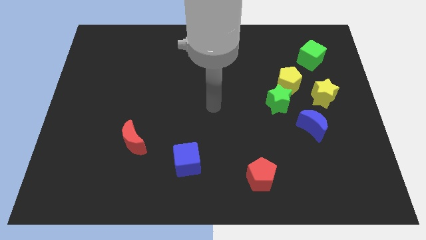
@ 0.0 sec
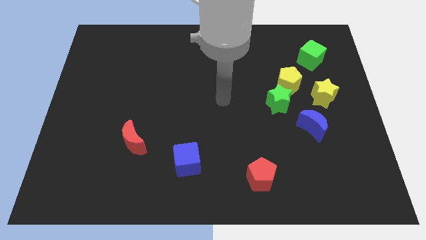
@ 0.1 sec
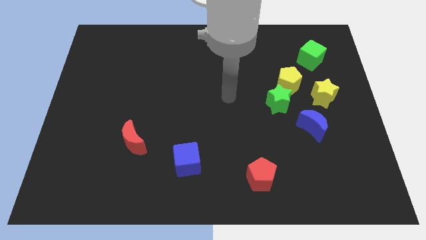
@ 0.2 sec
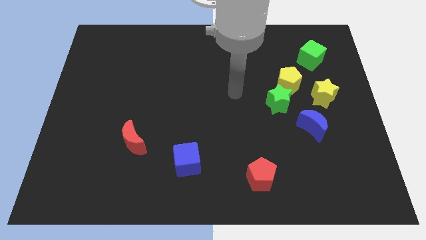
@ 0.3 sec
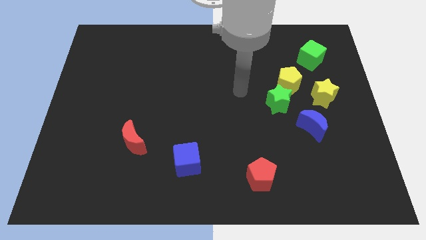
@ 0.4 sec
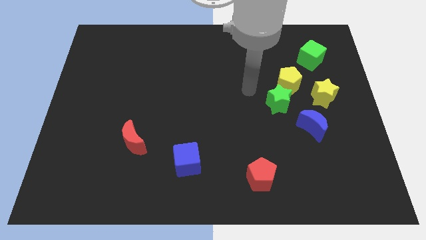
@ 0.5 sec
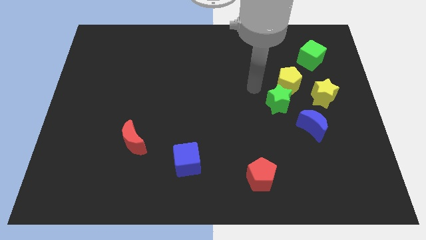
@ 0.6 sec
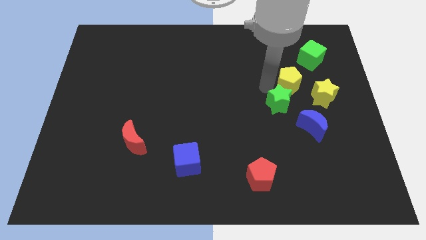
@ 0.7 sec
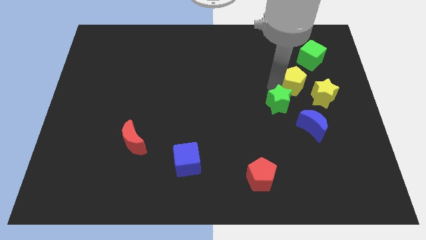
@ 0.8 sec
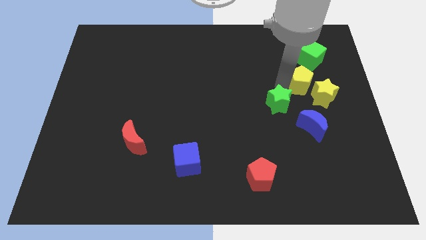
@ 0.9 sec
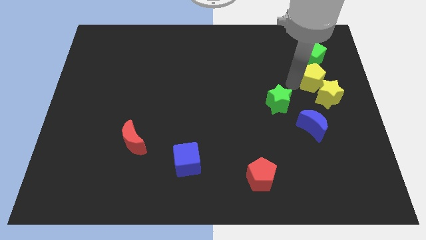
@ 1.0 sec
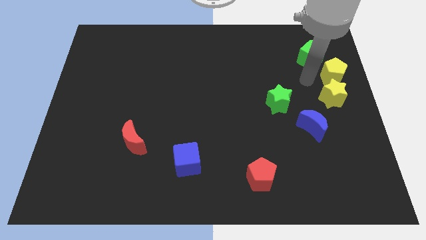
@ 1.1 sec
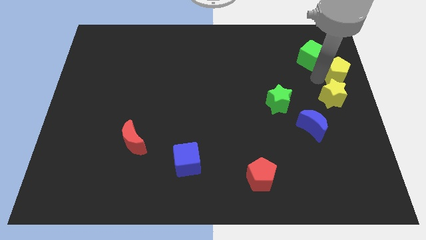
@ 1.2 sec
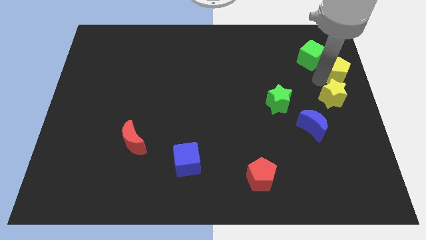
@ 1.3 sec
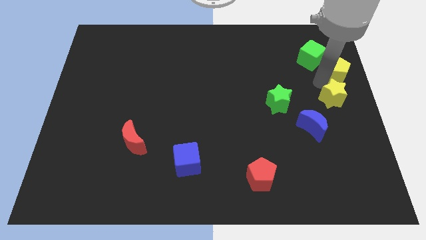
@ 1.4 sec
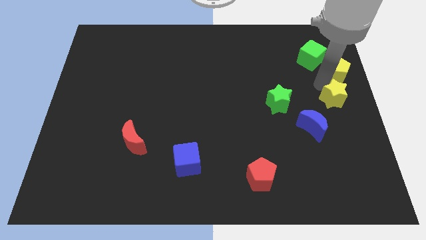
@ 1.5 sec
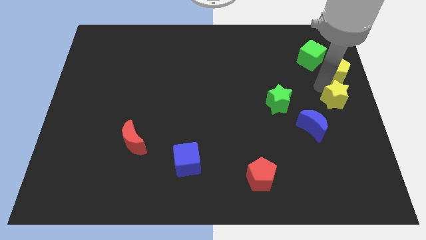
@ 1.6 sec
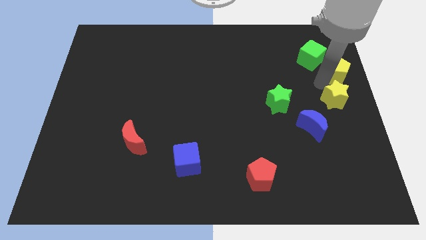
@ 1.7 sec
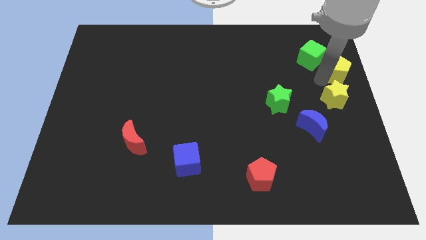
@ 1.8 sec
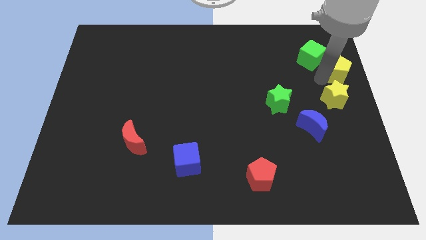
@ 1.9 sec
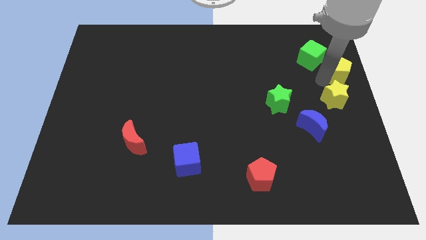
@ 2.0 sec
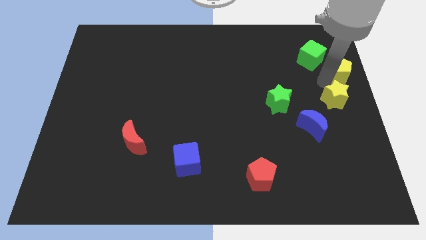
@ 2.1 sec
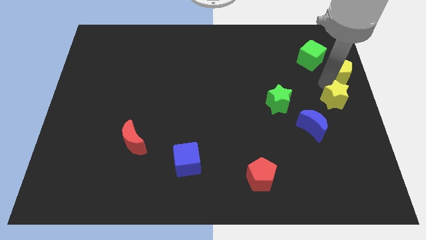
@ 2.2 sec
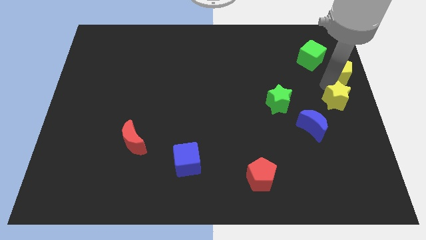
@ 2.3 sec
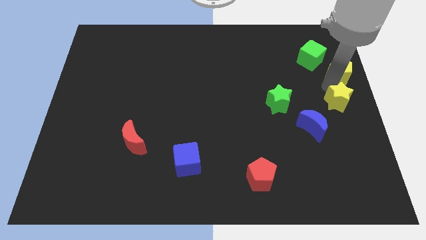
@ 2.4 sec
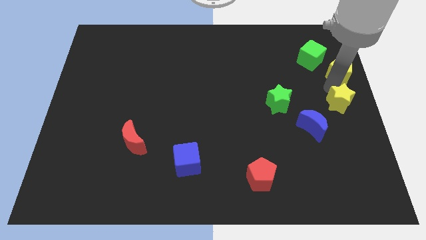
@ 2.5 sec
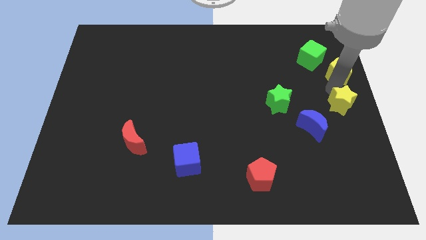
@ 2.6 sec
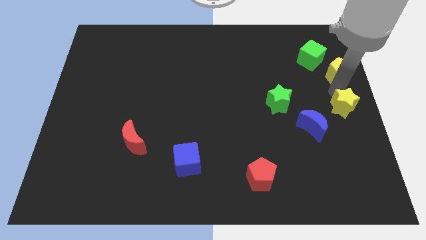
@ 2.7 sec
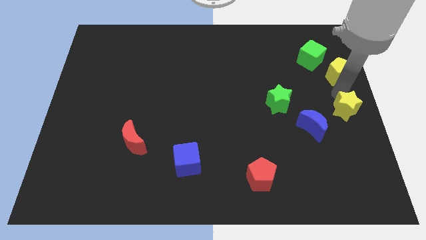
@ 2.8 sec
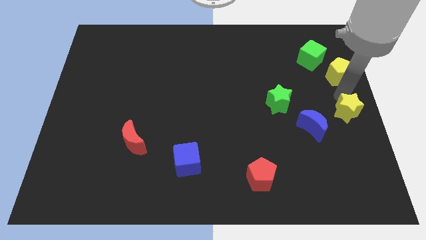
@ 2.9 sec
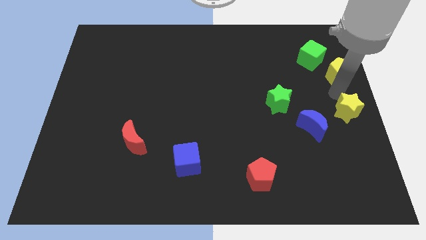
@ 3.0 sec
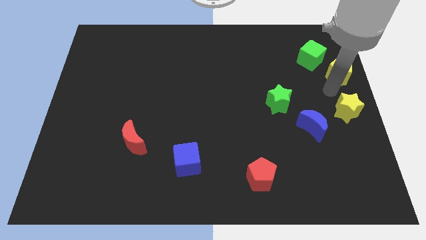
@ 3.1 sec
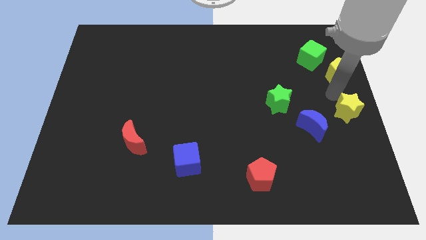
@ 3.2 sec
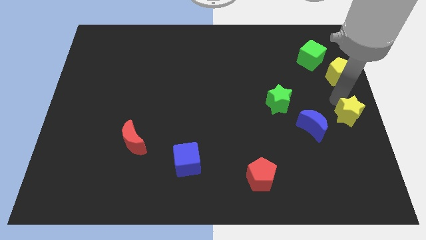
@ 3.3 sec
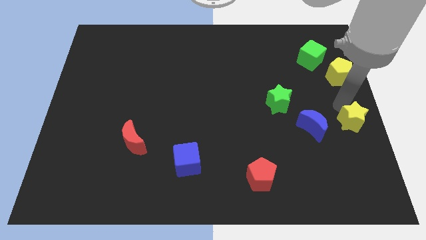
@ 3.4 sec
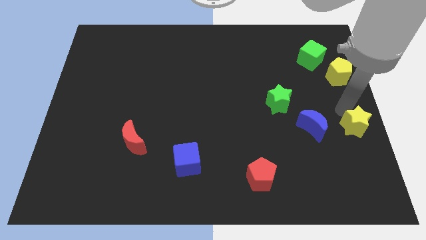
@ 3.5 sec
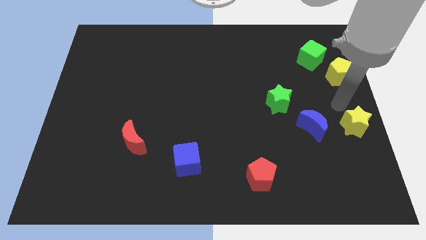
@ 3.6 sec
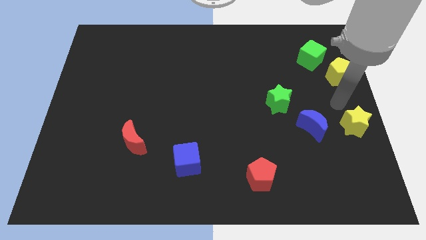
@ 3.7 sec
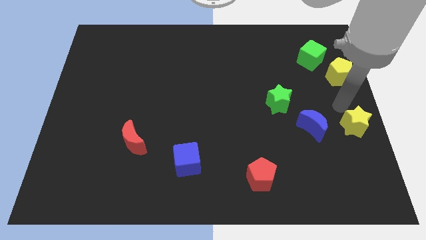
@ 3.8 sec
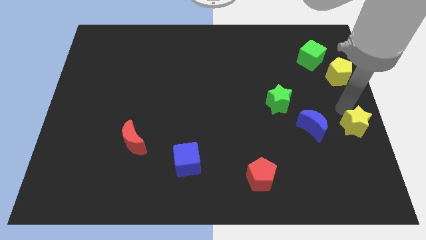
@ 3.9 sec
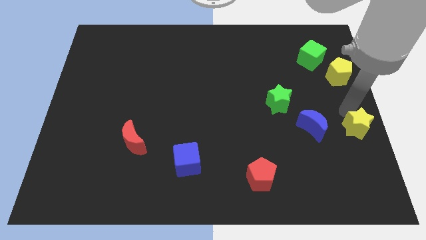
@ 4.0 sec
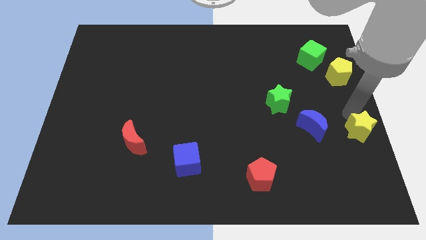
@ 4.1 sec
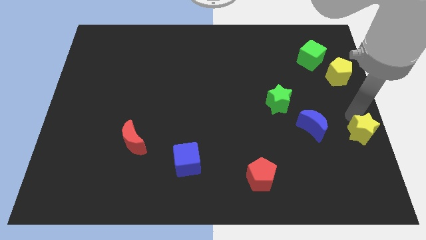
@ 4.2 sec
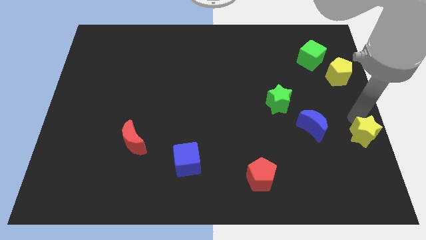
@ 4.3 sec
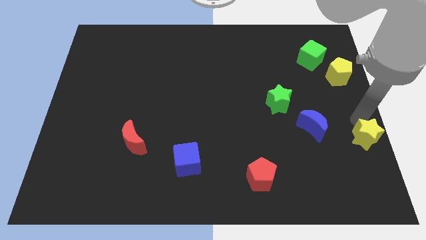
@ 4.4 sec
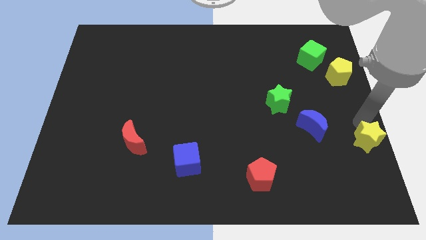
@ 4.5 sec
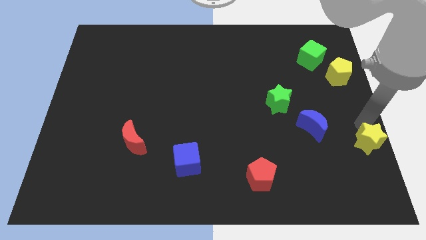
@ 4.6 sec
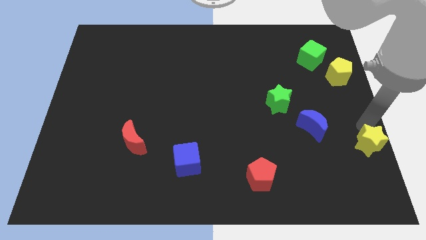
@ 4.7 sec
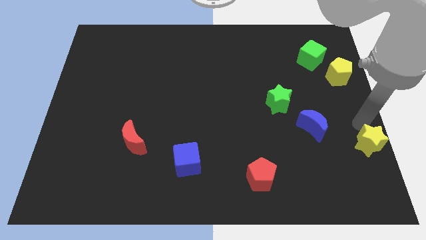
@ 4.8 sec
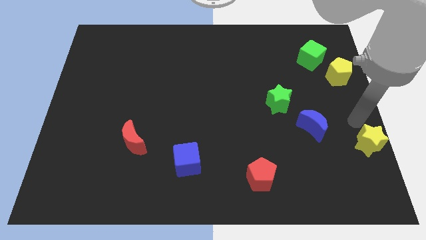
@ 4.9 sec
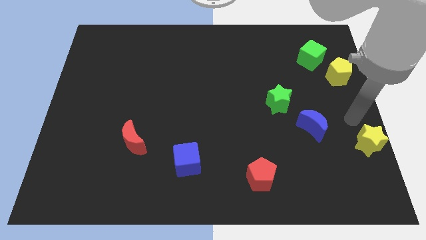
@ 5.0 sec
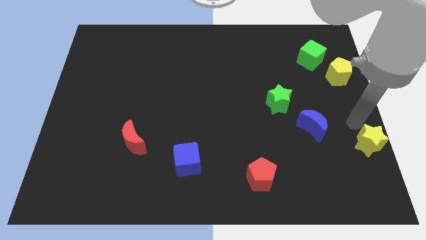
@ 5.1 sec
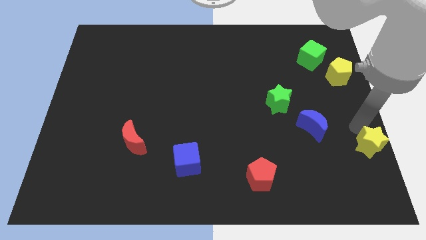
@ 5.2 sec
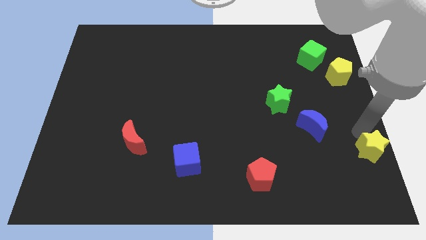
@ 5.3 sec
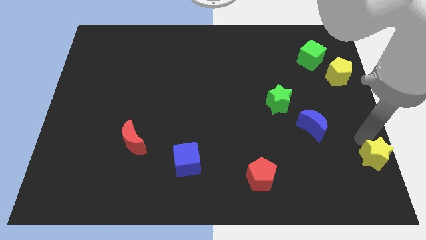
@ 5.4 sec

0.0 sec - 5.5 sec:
move the yellow star to the bottom right corner
